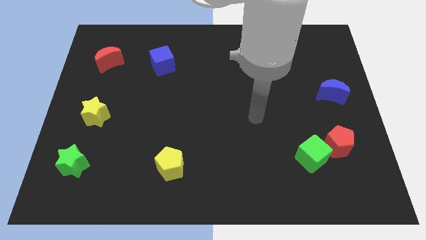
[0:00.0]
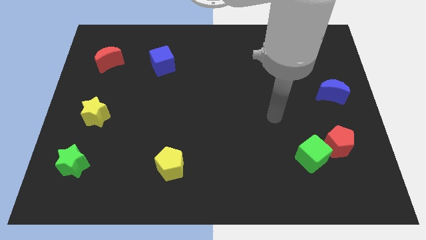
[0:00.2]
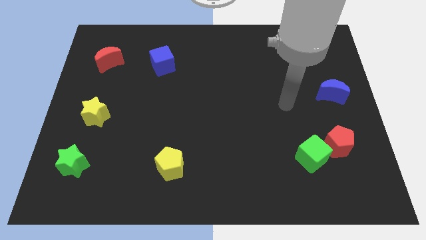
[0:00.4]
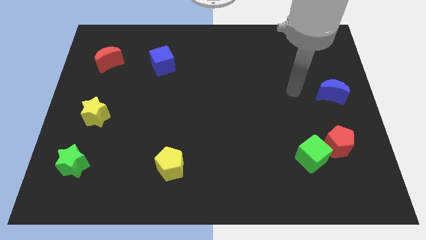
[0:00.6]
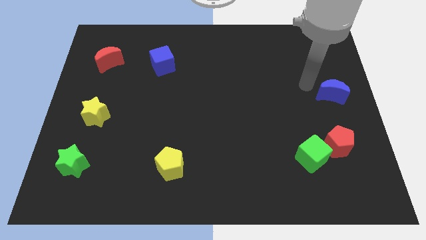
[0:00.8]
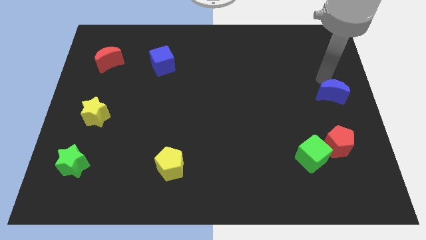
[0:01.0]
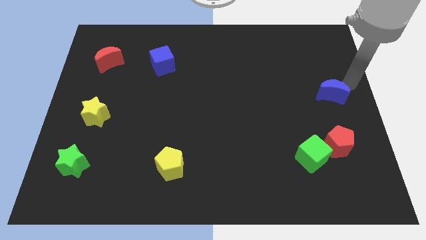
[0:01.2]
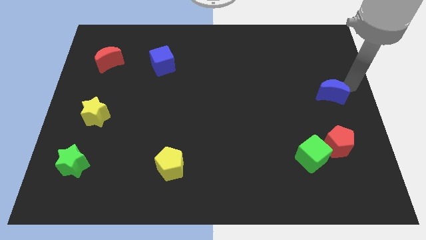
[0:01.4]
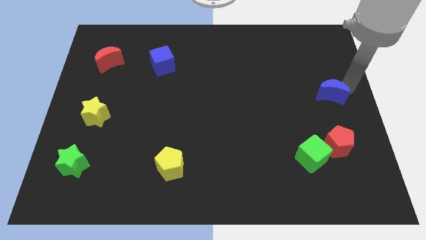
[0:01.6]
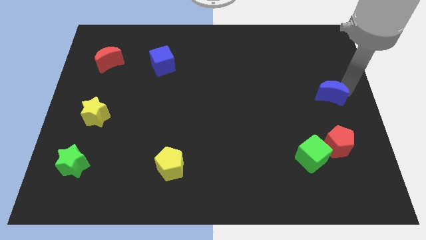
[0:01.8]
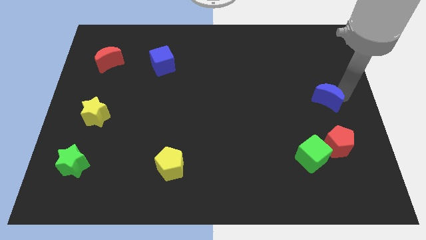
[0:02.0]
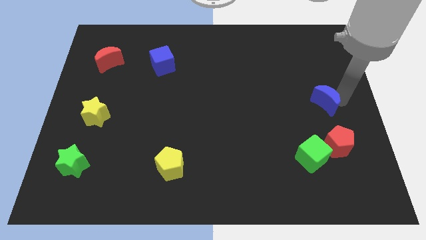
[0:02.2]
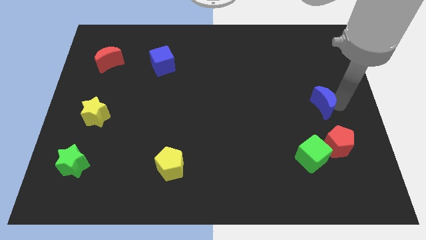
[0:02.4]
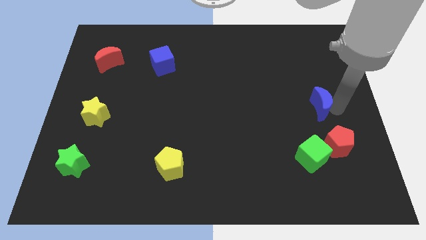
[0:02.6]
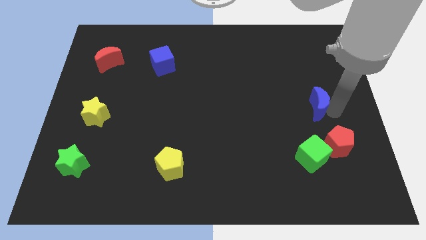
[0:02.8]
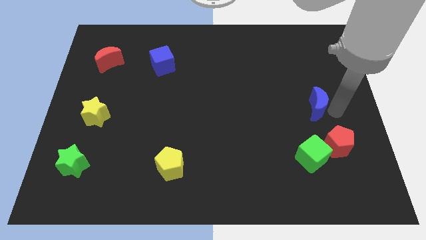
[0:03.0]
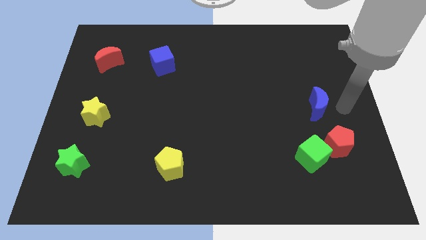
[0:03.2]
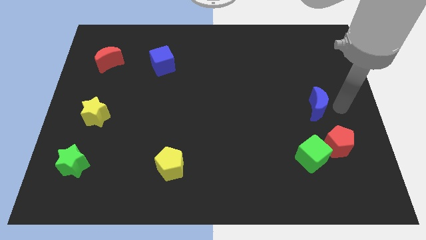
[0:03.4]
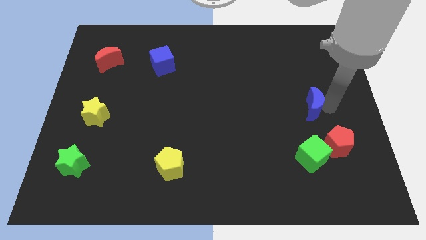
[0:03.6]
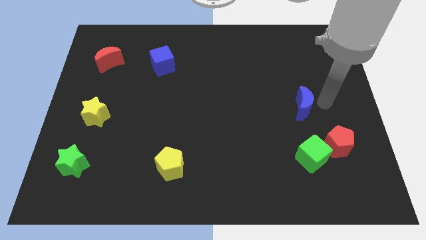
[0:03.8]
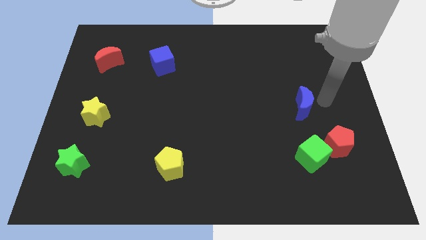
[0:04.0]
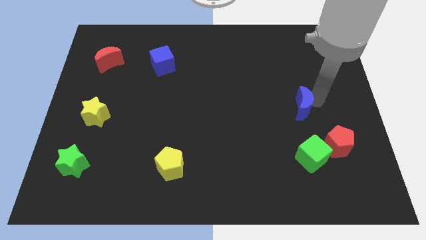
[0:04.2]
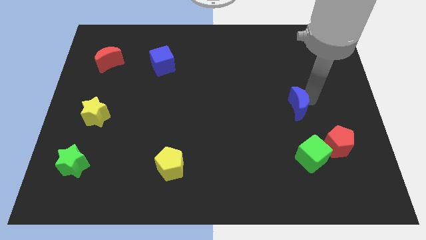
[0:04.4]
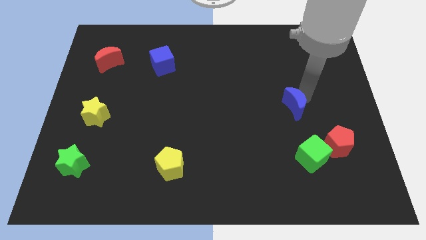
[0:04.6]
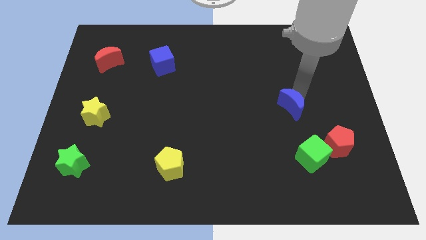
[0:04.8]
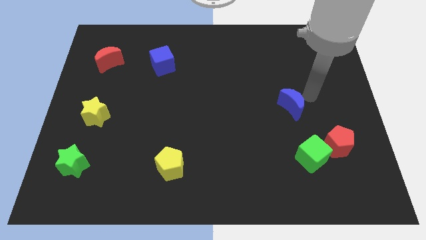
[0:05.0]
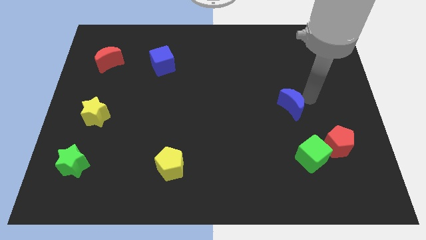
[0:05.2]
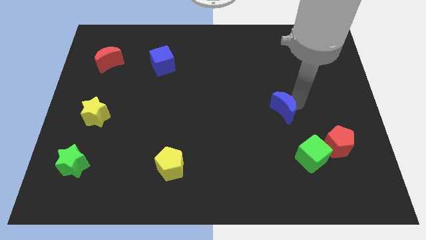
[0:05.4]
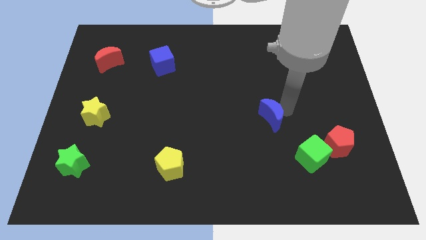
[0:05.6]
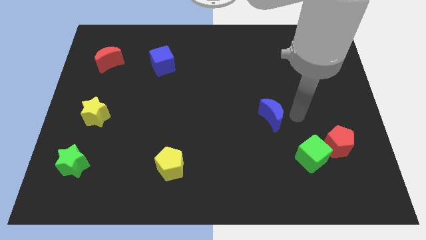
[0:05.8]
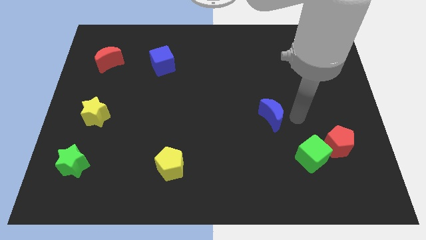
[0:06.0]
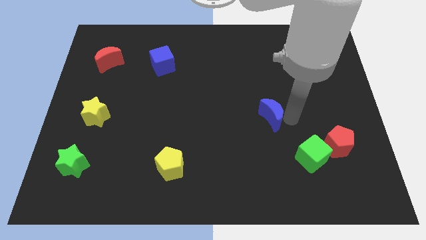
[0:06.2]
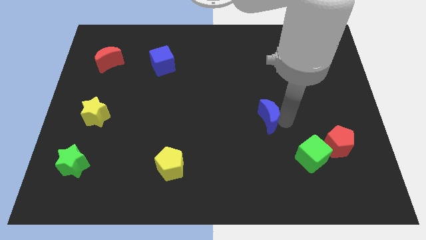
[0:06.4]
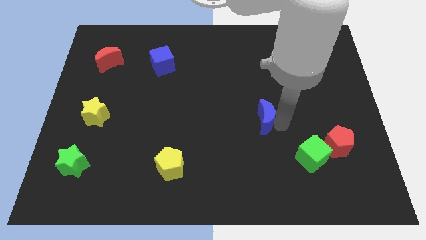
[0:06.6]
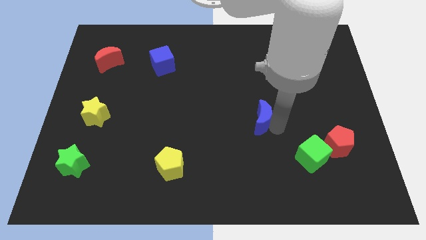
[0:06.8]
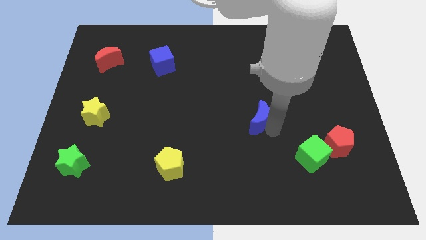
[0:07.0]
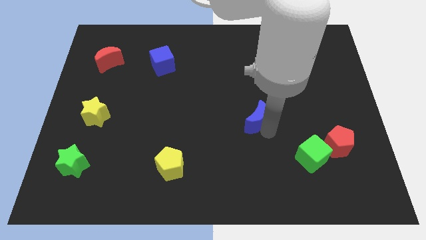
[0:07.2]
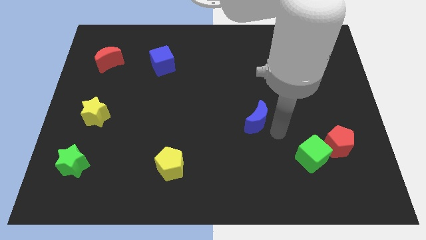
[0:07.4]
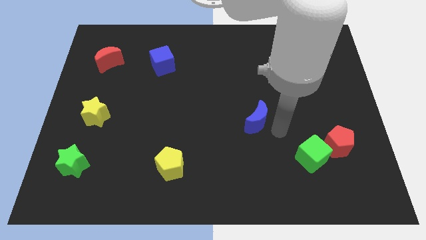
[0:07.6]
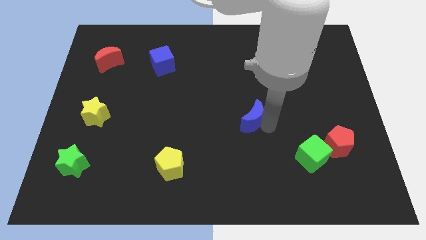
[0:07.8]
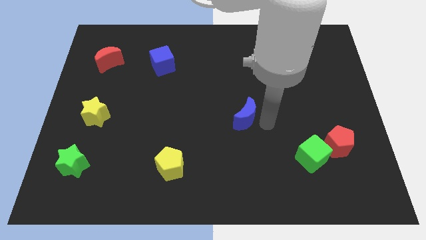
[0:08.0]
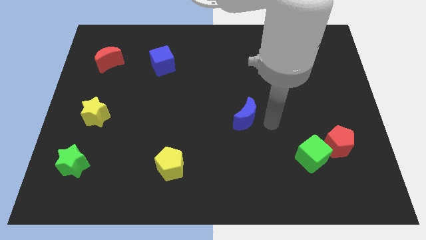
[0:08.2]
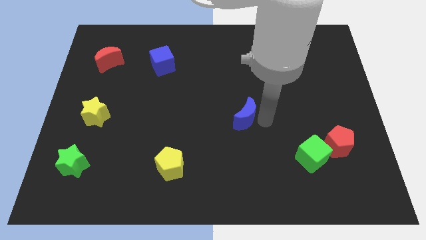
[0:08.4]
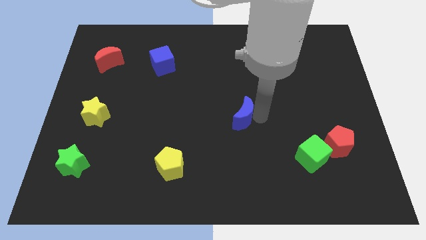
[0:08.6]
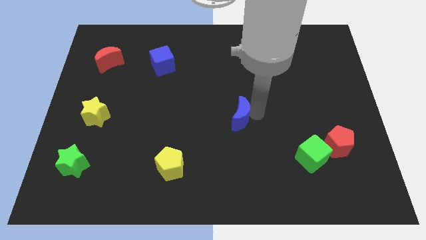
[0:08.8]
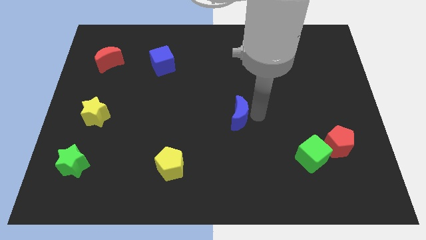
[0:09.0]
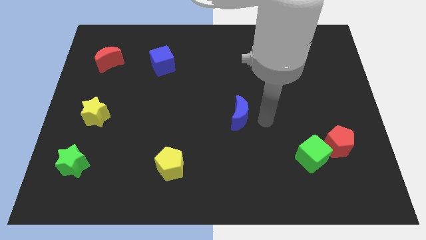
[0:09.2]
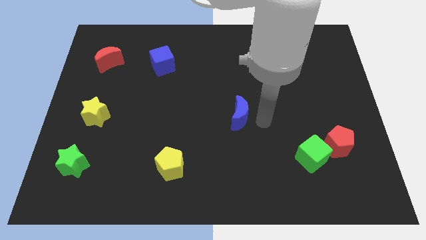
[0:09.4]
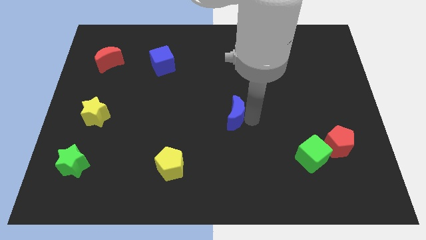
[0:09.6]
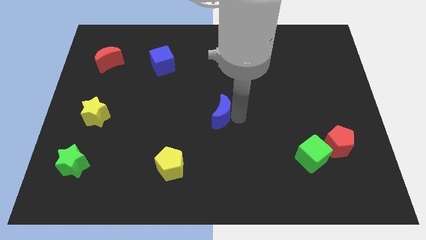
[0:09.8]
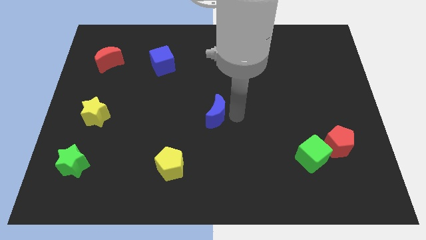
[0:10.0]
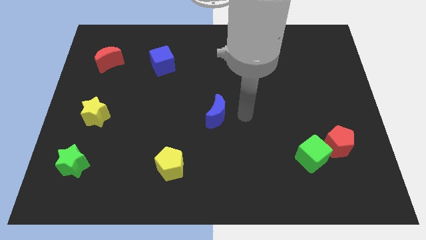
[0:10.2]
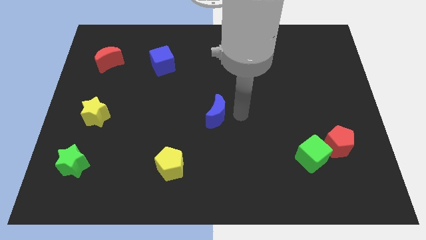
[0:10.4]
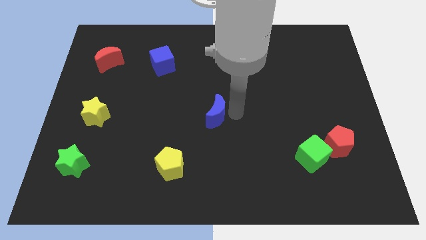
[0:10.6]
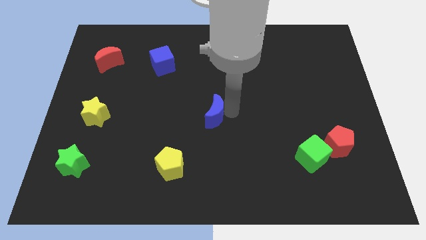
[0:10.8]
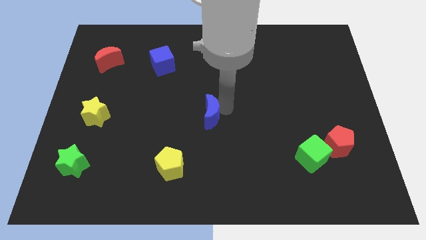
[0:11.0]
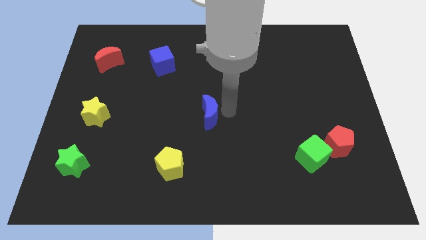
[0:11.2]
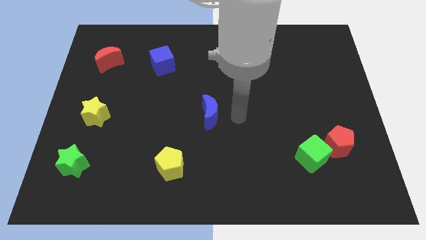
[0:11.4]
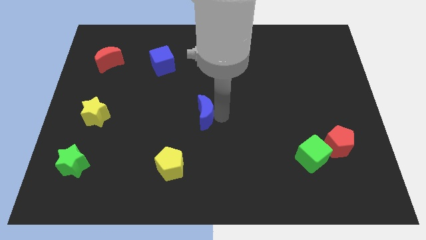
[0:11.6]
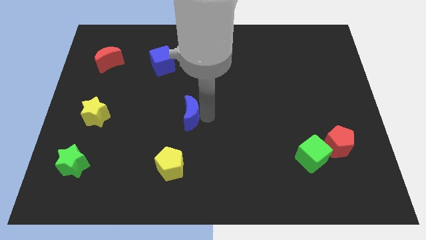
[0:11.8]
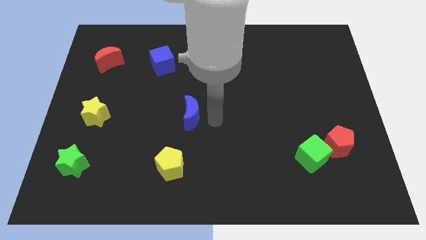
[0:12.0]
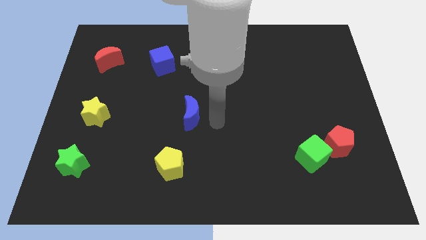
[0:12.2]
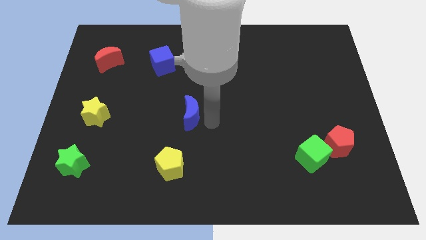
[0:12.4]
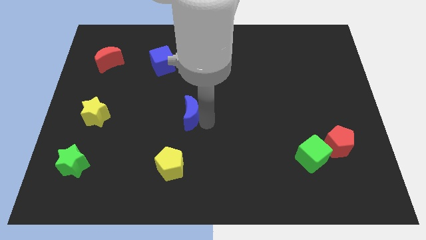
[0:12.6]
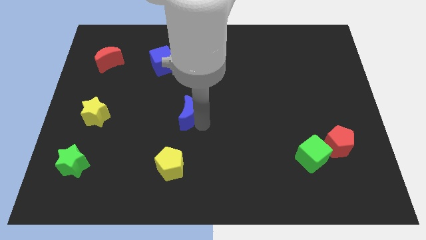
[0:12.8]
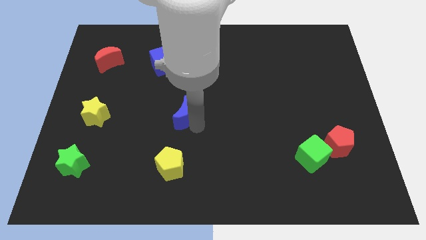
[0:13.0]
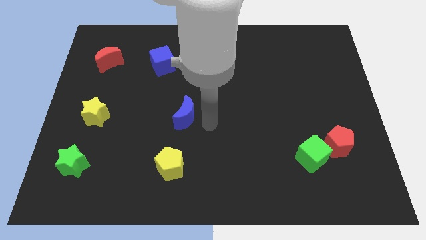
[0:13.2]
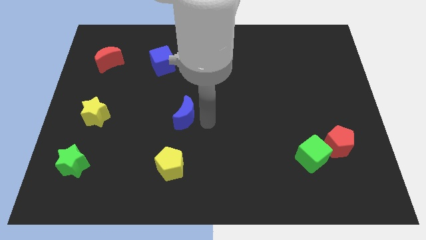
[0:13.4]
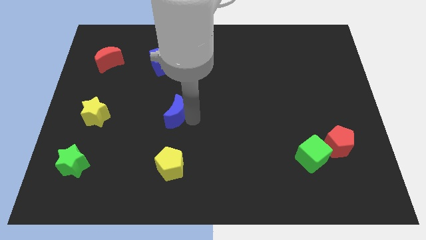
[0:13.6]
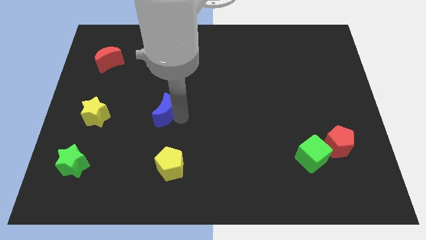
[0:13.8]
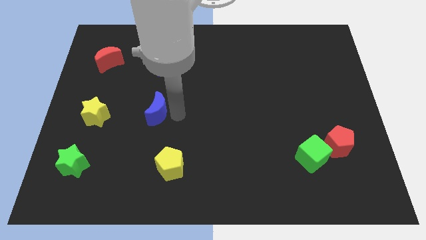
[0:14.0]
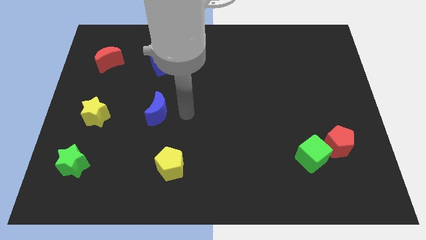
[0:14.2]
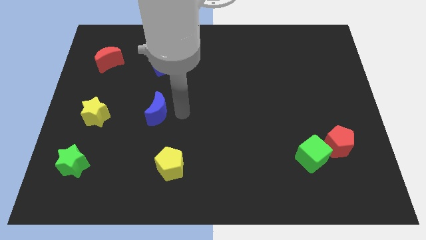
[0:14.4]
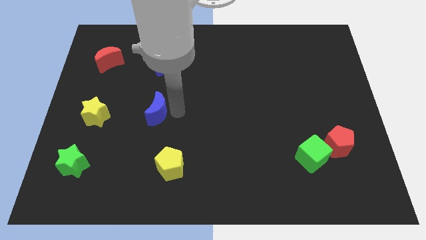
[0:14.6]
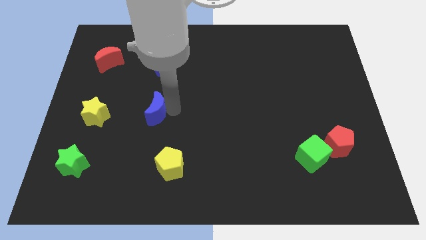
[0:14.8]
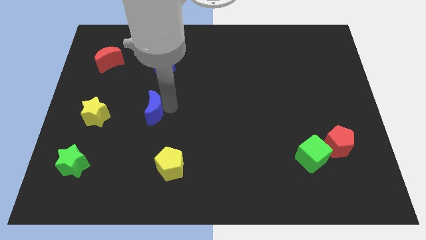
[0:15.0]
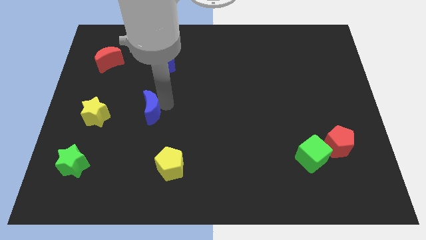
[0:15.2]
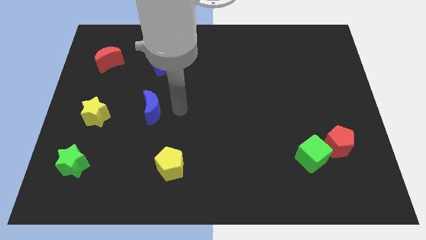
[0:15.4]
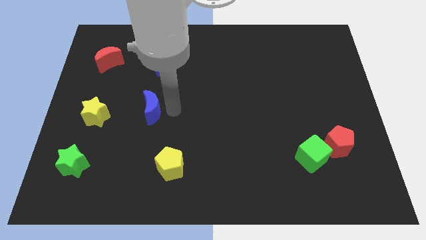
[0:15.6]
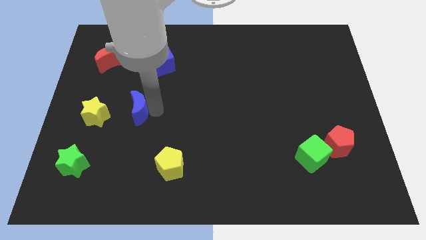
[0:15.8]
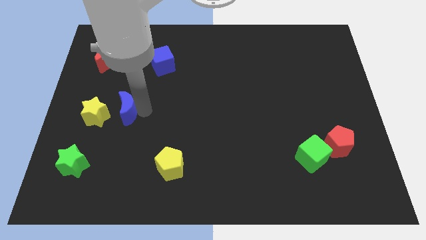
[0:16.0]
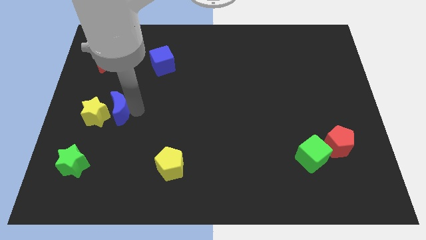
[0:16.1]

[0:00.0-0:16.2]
slide the blue moon to the yellow star
